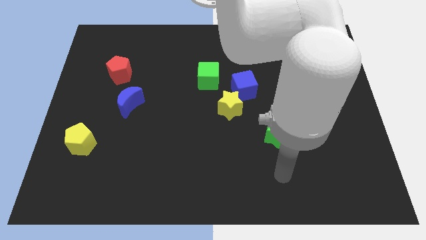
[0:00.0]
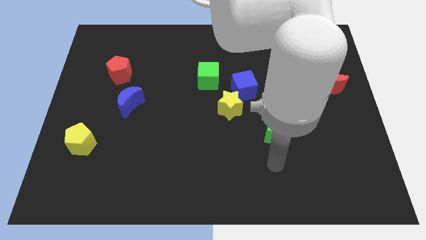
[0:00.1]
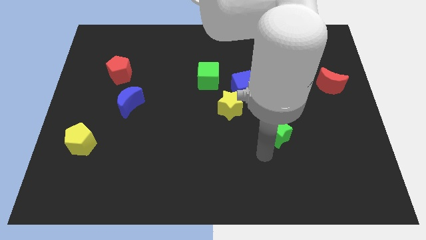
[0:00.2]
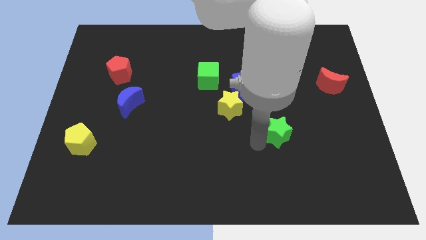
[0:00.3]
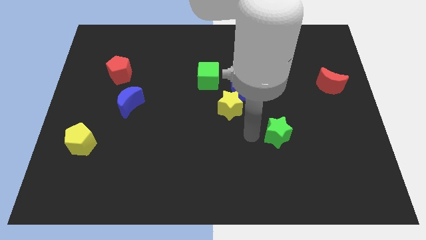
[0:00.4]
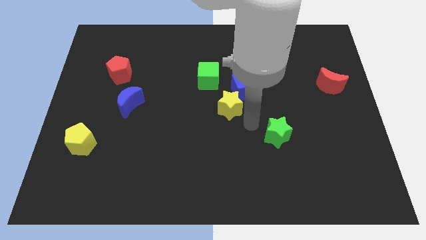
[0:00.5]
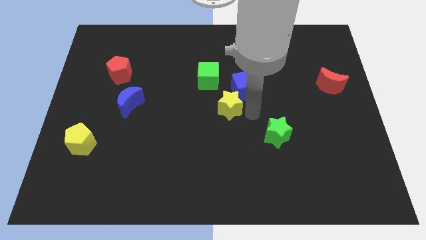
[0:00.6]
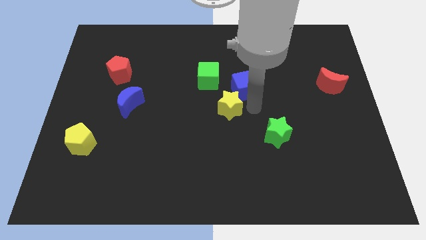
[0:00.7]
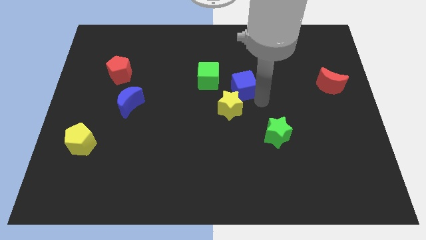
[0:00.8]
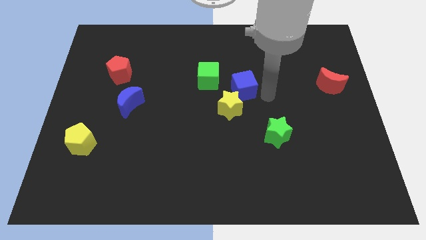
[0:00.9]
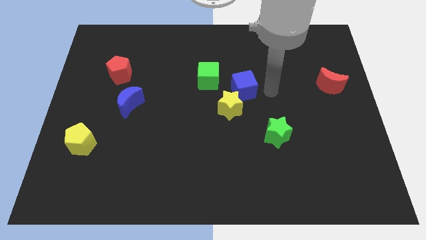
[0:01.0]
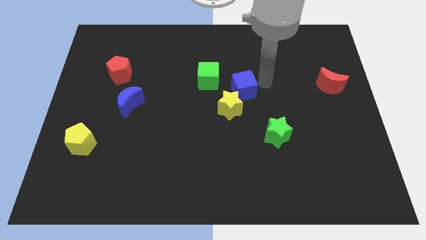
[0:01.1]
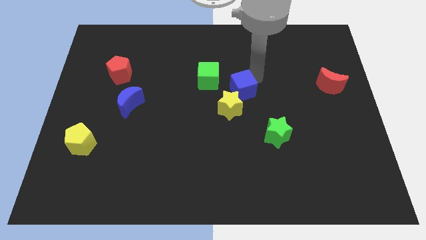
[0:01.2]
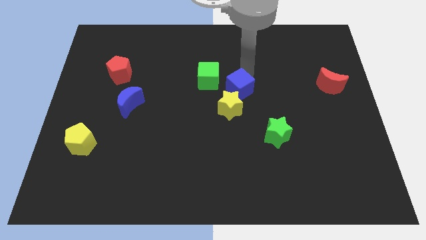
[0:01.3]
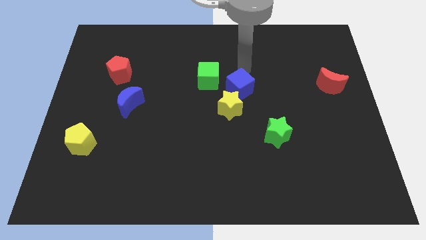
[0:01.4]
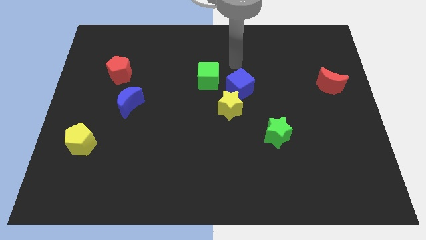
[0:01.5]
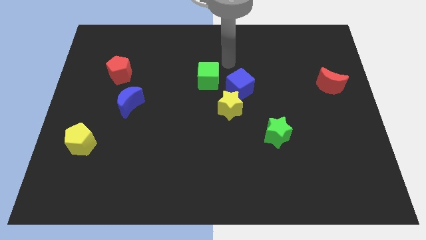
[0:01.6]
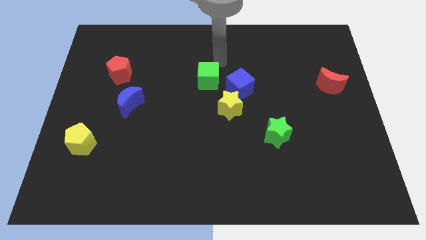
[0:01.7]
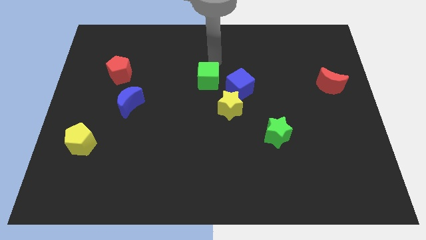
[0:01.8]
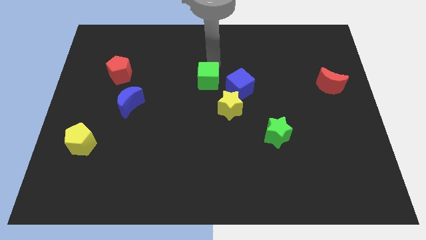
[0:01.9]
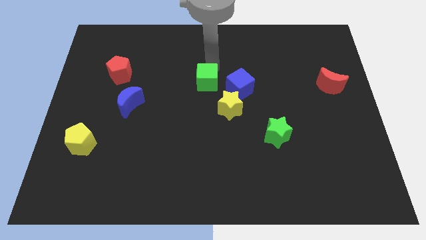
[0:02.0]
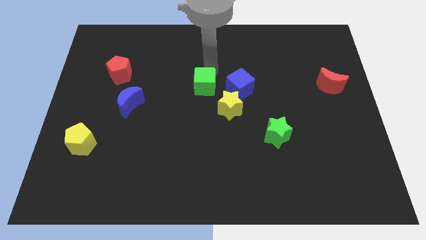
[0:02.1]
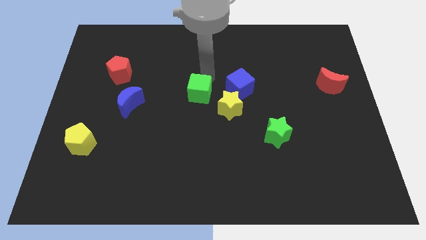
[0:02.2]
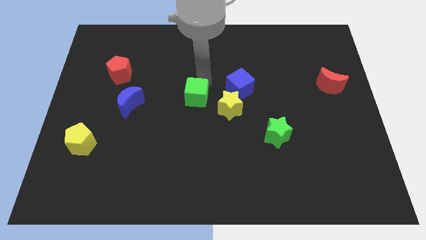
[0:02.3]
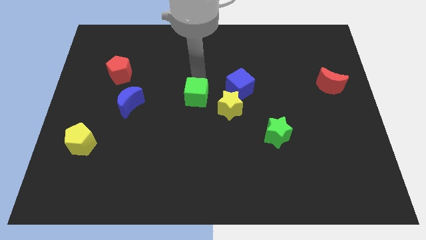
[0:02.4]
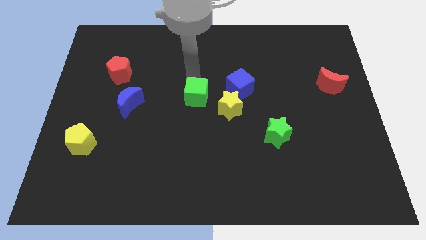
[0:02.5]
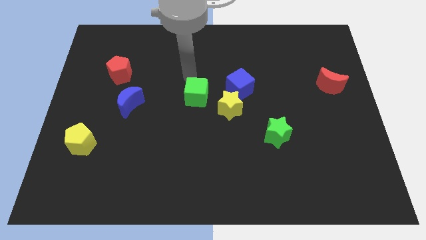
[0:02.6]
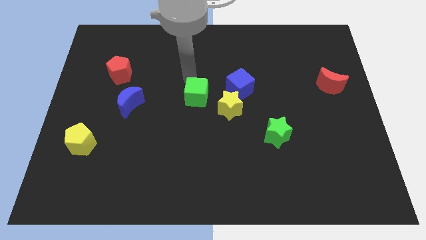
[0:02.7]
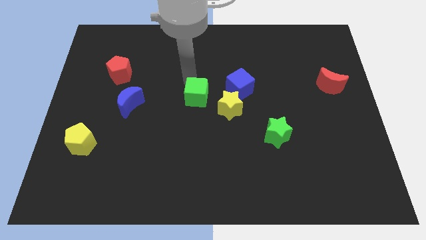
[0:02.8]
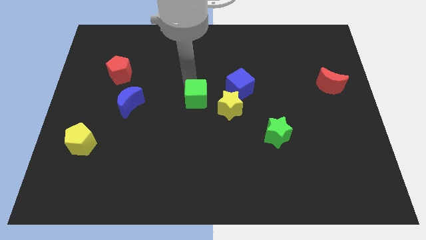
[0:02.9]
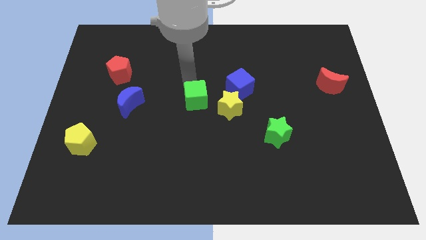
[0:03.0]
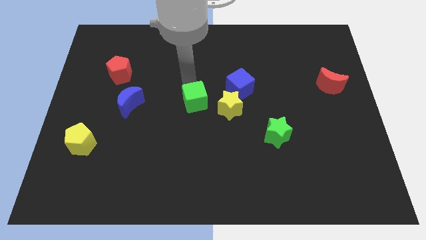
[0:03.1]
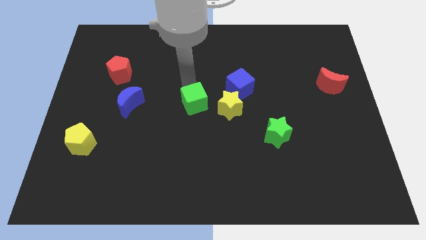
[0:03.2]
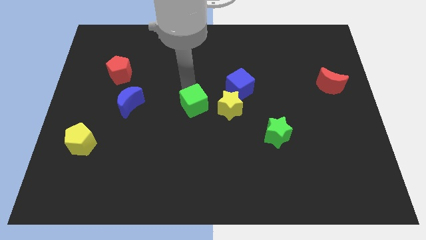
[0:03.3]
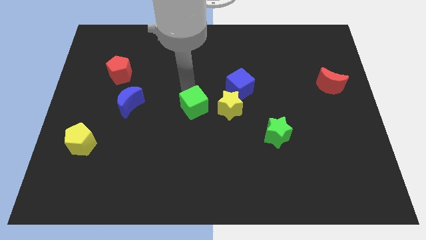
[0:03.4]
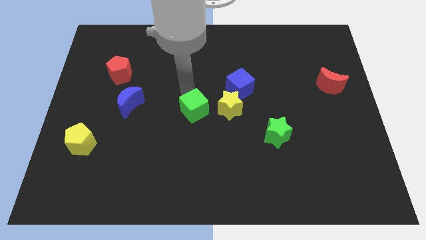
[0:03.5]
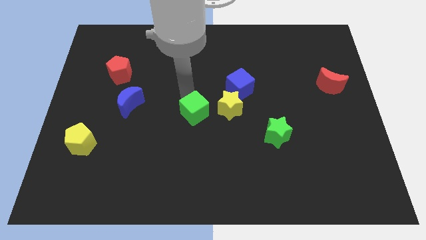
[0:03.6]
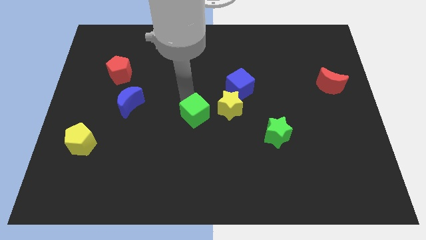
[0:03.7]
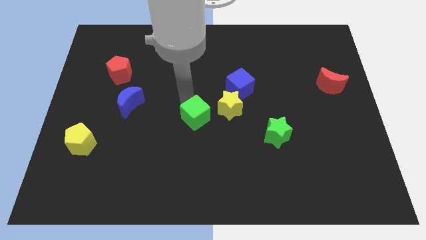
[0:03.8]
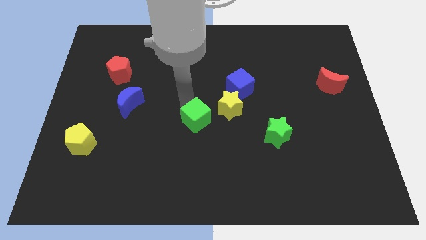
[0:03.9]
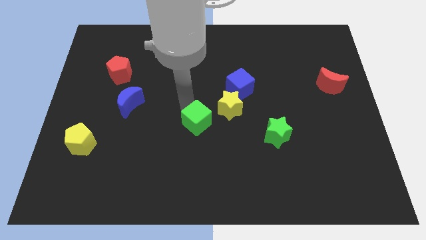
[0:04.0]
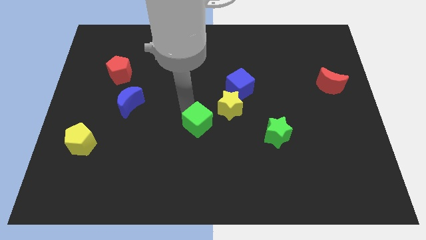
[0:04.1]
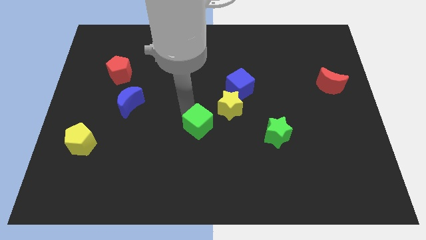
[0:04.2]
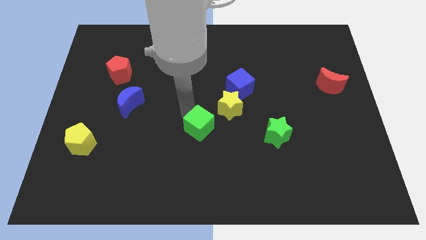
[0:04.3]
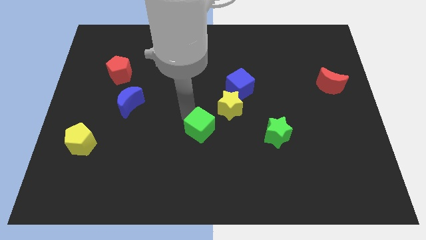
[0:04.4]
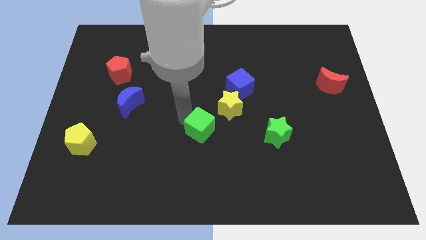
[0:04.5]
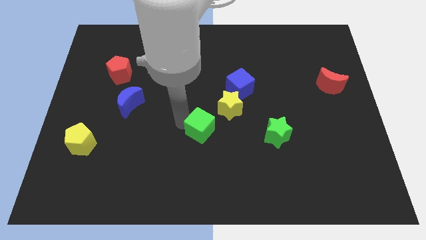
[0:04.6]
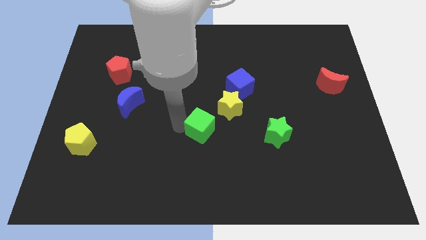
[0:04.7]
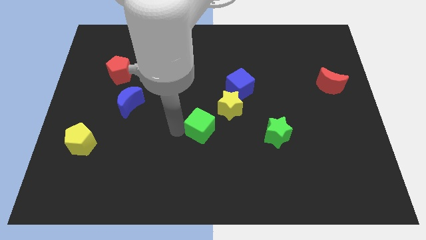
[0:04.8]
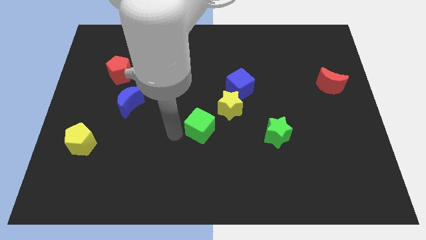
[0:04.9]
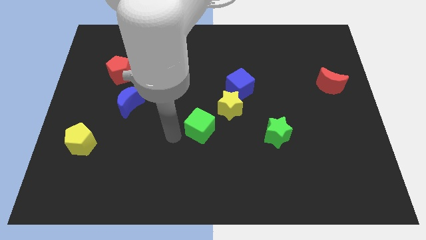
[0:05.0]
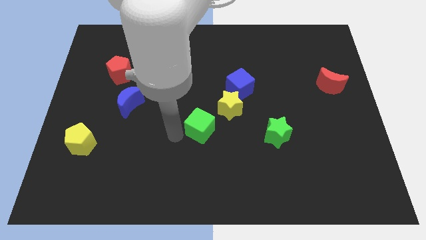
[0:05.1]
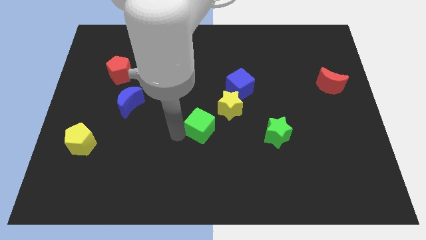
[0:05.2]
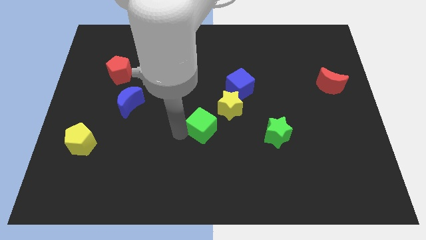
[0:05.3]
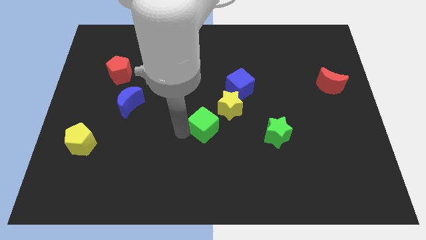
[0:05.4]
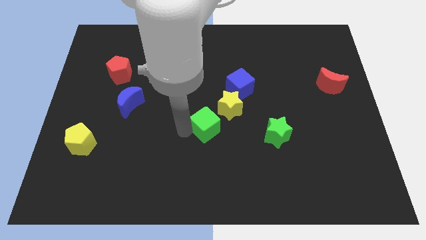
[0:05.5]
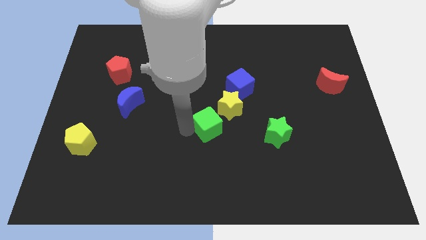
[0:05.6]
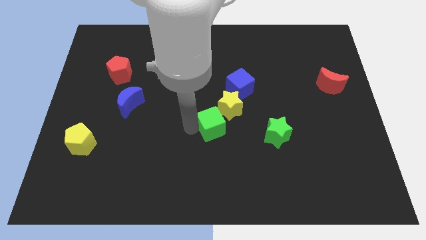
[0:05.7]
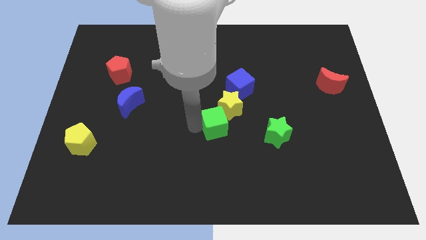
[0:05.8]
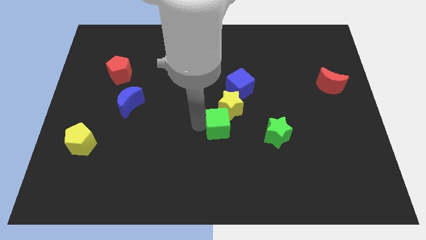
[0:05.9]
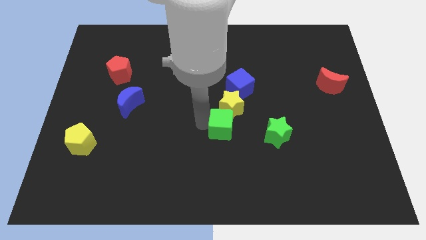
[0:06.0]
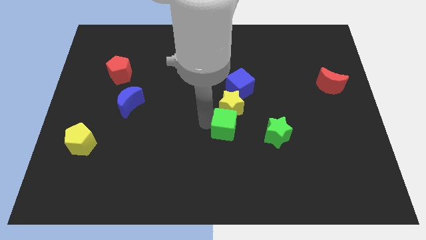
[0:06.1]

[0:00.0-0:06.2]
put the green cube diagonally down and to the right of the yellow star

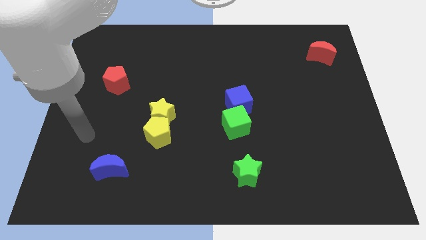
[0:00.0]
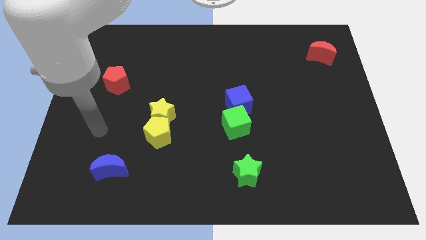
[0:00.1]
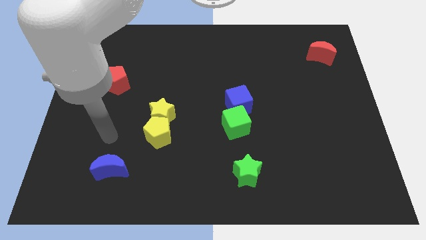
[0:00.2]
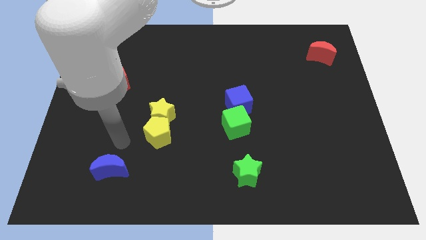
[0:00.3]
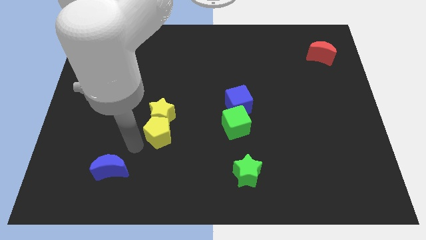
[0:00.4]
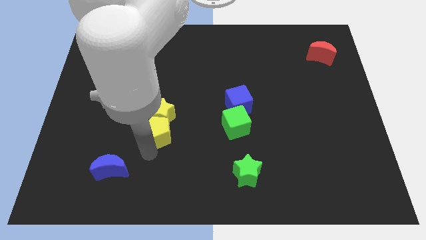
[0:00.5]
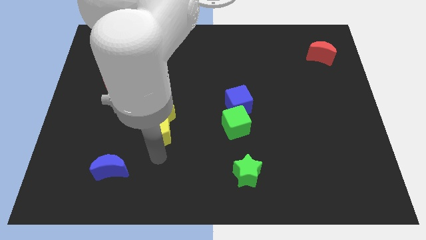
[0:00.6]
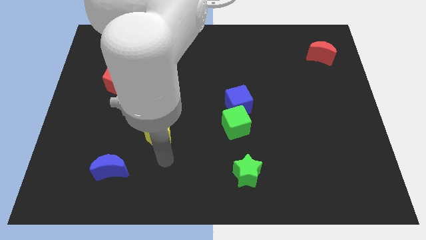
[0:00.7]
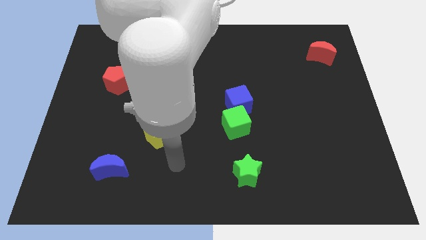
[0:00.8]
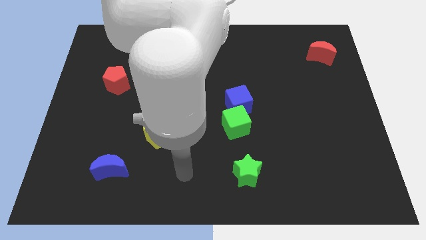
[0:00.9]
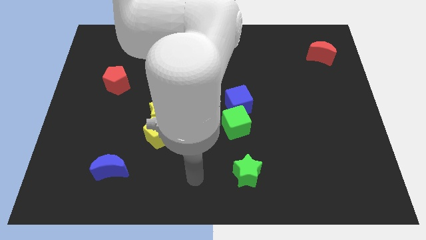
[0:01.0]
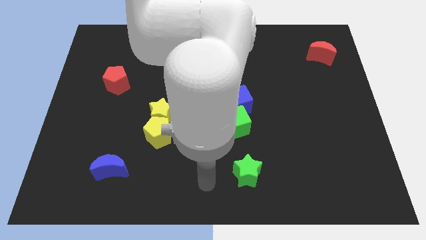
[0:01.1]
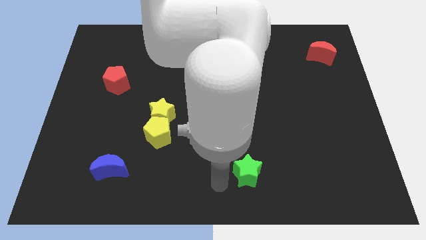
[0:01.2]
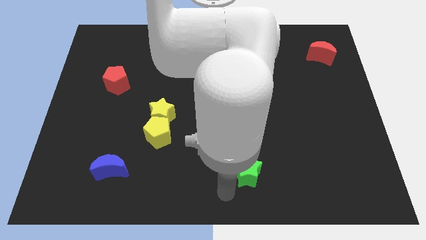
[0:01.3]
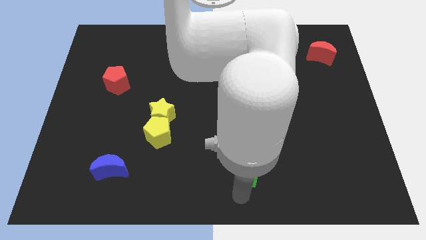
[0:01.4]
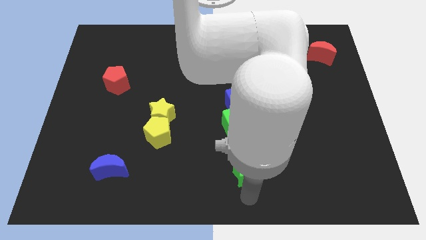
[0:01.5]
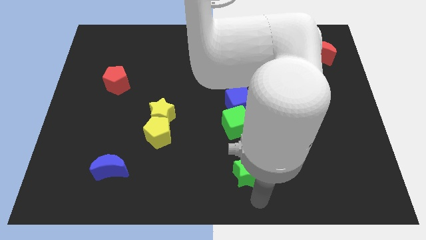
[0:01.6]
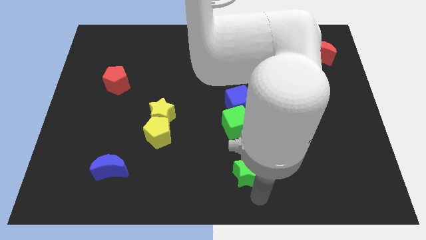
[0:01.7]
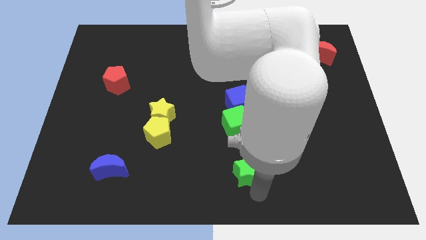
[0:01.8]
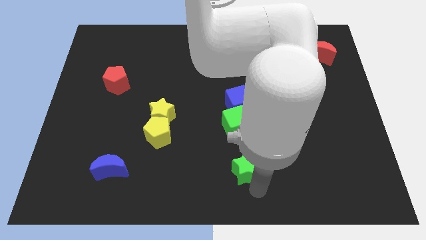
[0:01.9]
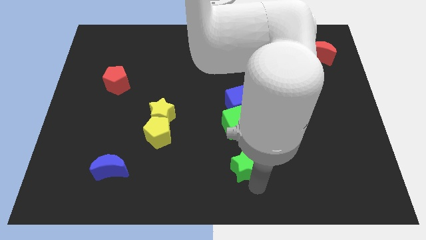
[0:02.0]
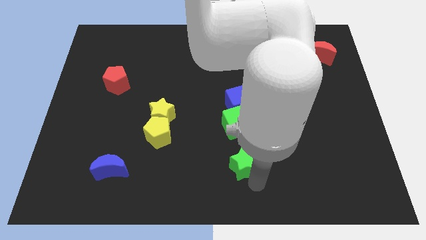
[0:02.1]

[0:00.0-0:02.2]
put the green star to the bottom of the blue cube
